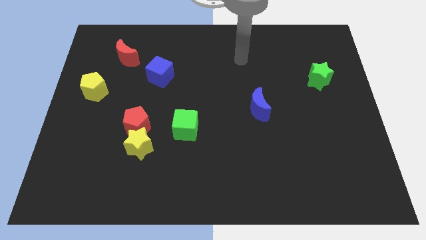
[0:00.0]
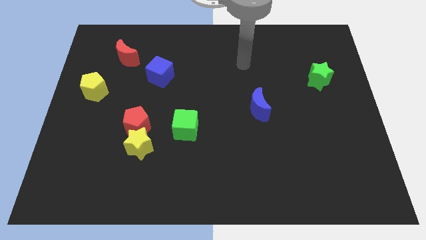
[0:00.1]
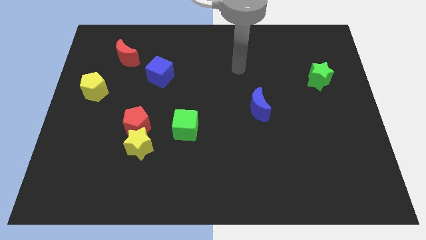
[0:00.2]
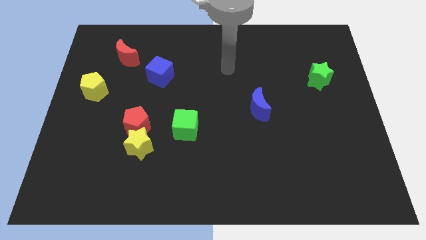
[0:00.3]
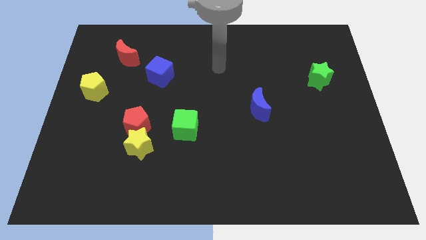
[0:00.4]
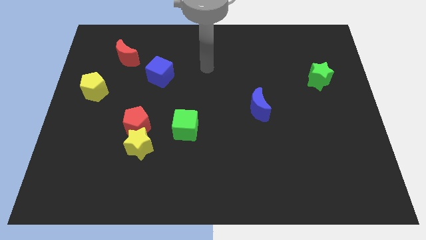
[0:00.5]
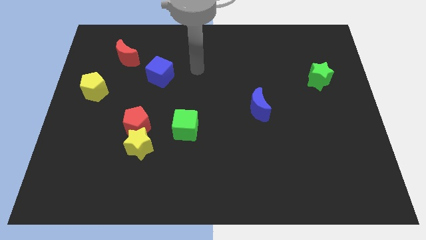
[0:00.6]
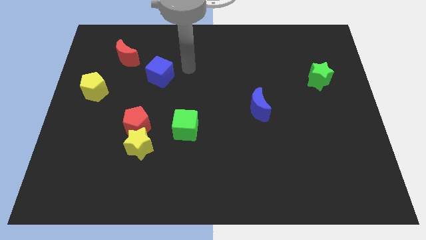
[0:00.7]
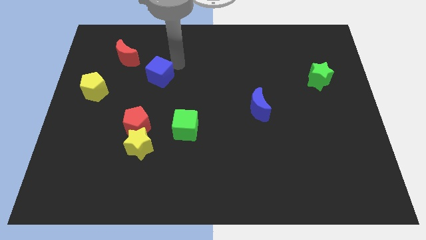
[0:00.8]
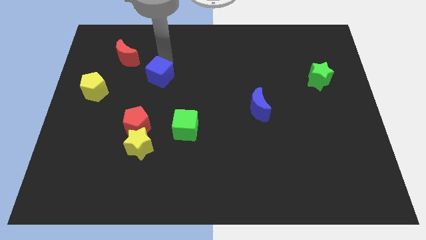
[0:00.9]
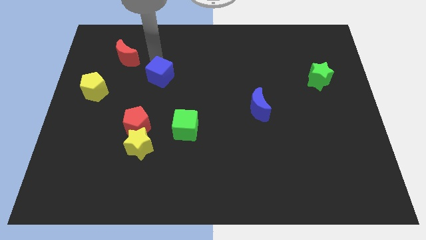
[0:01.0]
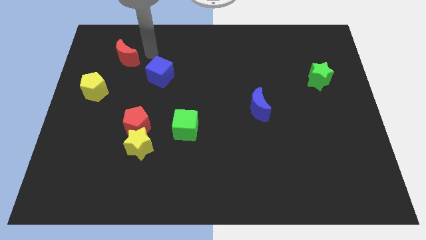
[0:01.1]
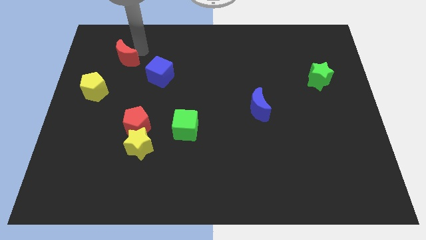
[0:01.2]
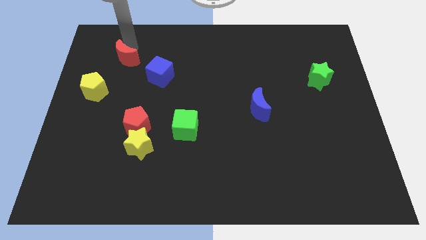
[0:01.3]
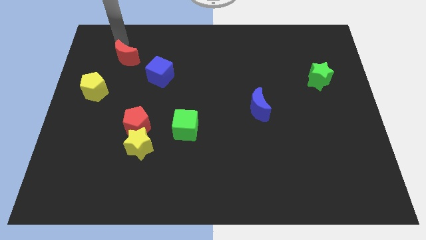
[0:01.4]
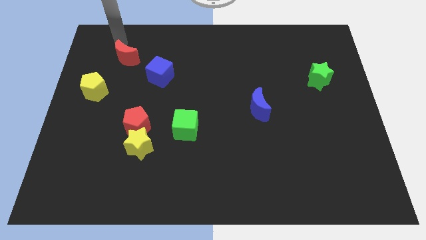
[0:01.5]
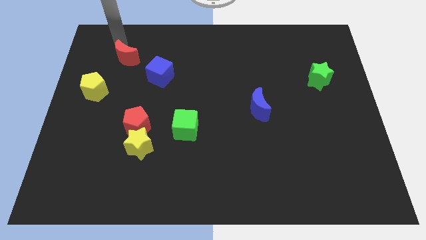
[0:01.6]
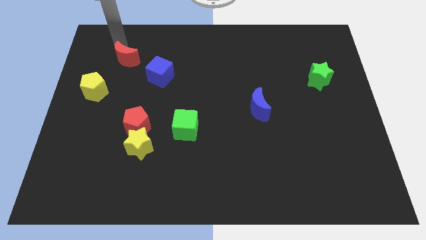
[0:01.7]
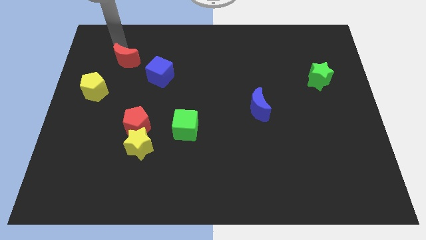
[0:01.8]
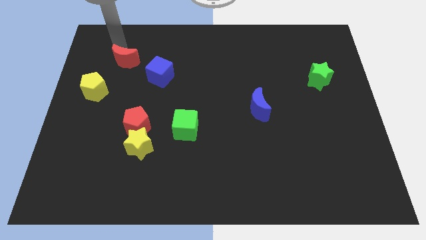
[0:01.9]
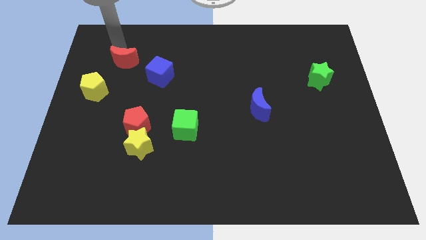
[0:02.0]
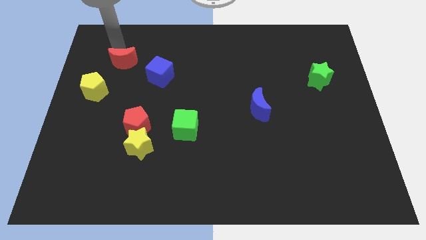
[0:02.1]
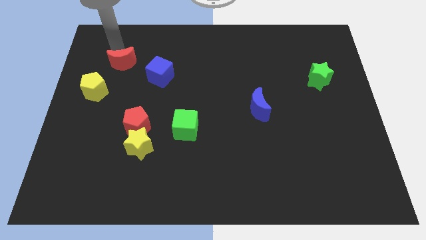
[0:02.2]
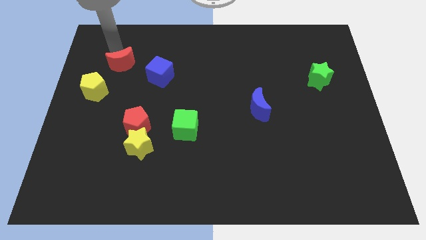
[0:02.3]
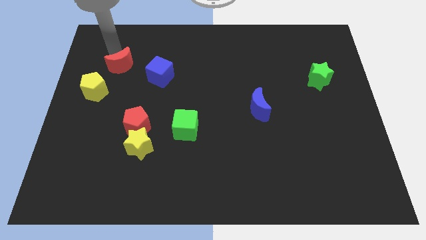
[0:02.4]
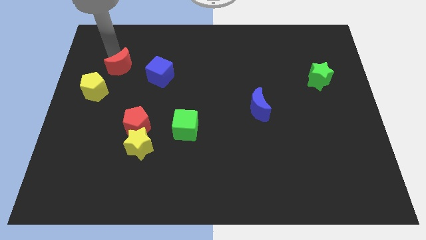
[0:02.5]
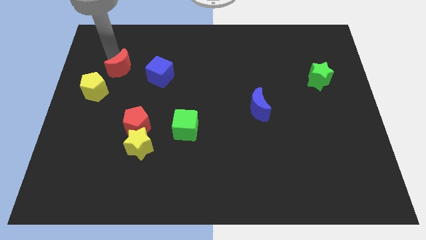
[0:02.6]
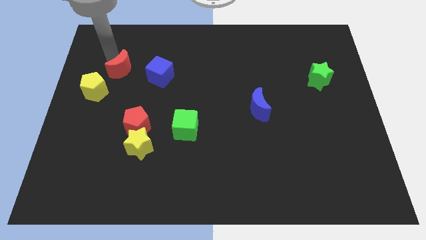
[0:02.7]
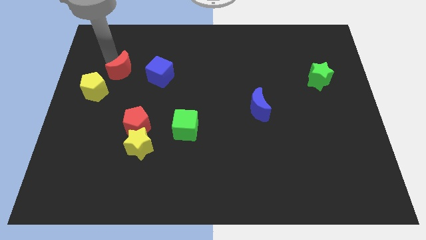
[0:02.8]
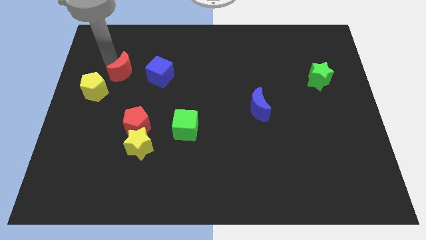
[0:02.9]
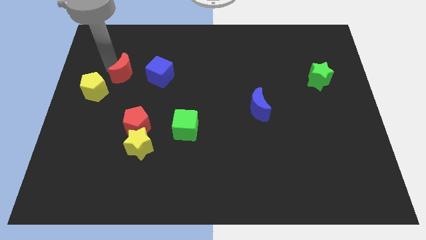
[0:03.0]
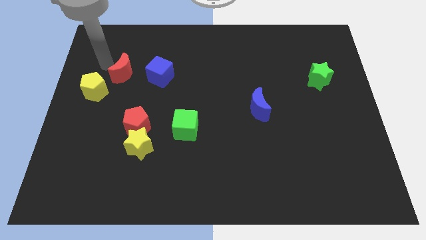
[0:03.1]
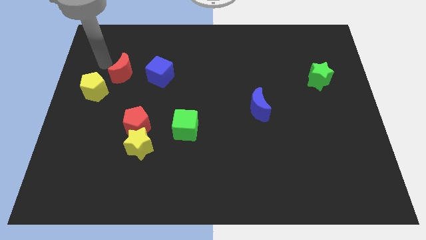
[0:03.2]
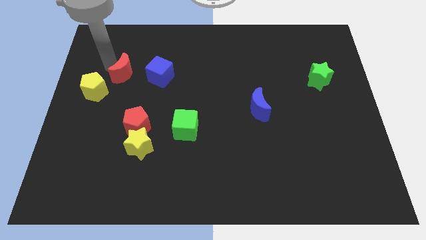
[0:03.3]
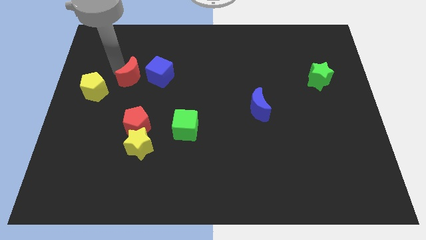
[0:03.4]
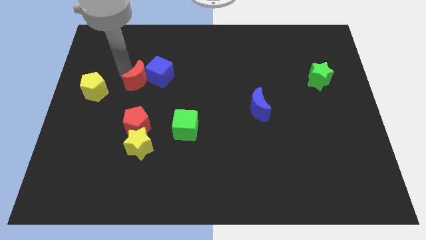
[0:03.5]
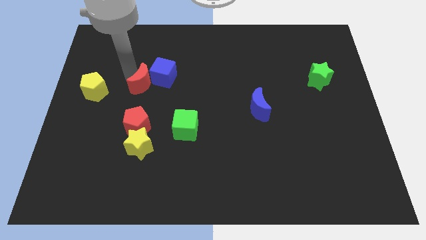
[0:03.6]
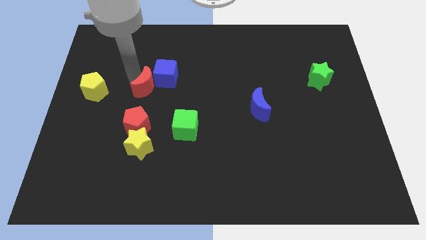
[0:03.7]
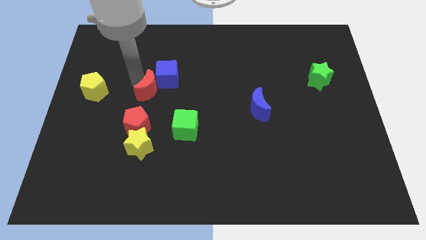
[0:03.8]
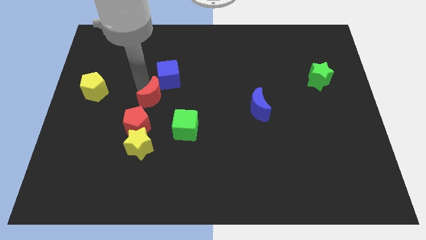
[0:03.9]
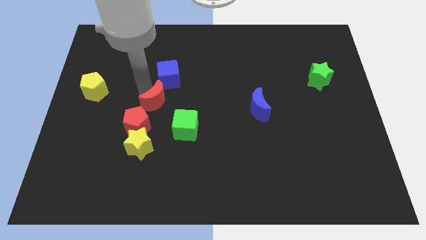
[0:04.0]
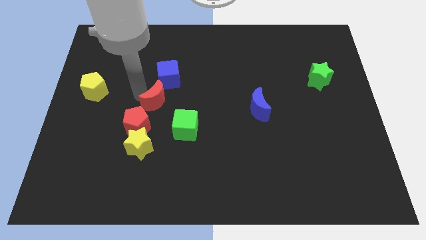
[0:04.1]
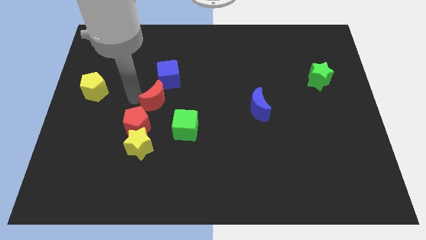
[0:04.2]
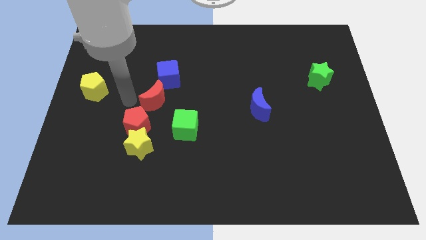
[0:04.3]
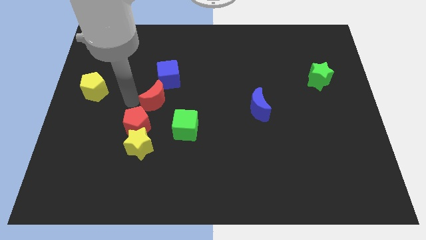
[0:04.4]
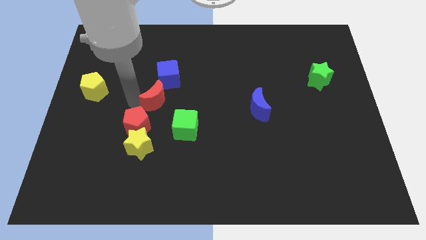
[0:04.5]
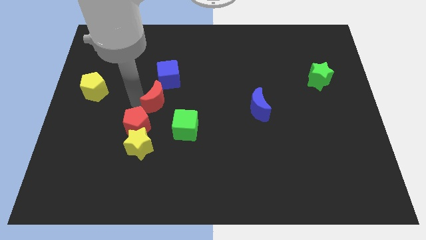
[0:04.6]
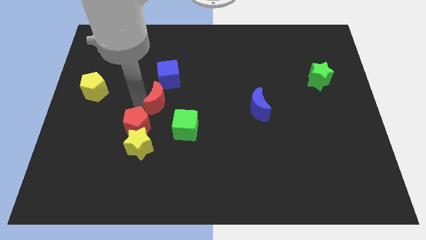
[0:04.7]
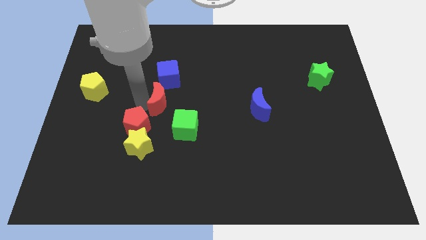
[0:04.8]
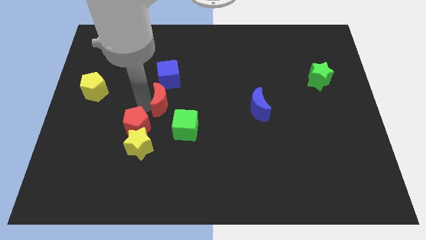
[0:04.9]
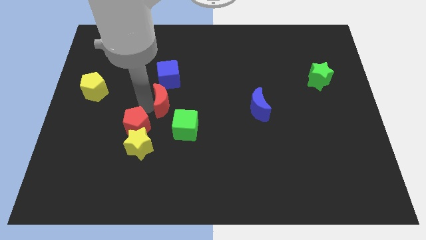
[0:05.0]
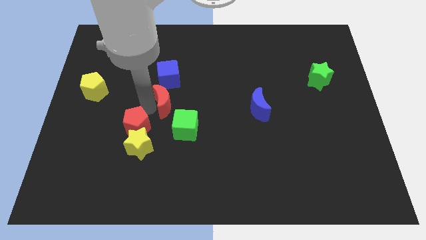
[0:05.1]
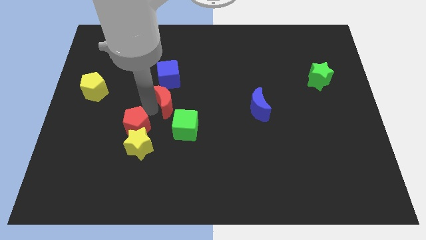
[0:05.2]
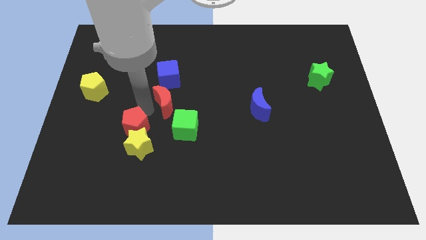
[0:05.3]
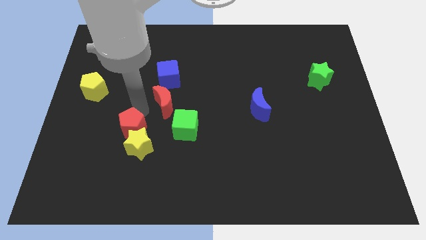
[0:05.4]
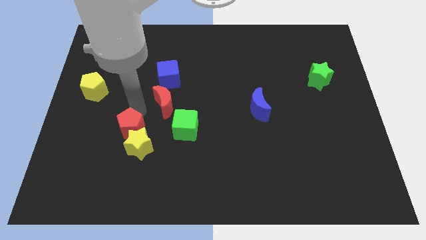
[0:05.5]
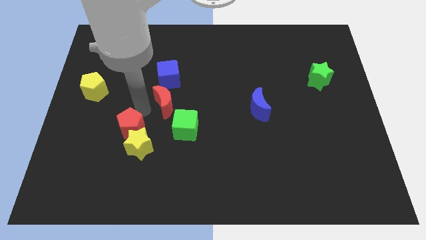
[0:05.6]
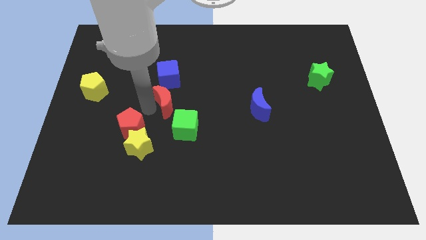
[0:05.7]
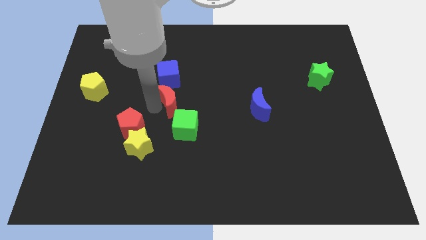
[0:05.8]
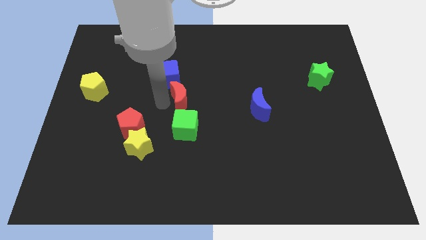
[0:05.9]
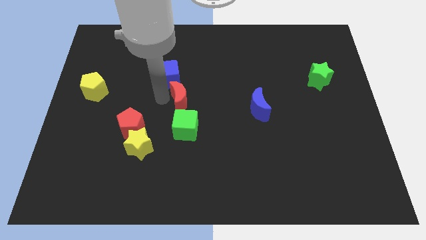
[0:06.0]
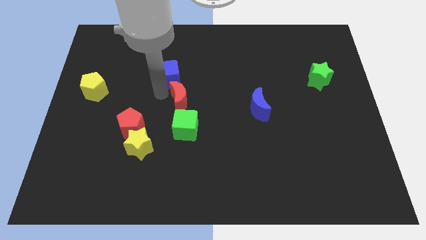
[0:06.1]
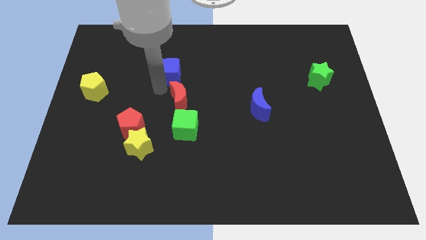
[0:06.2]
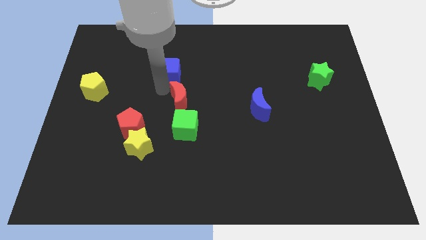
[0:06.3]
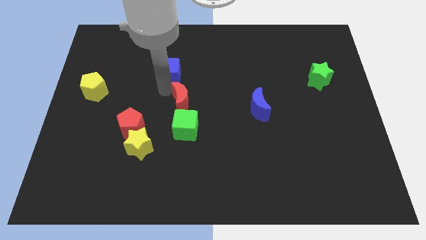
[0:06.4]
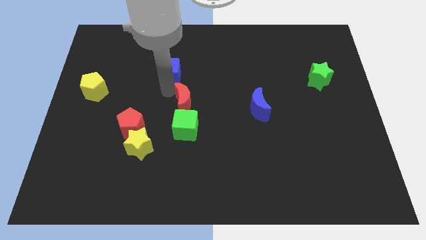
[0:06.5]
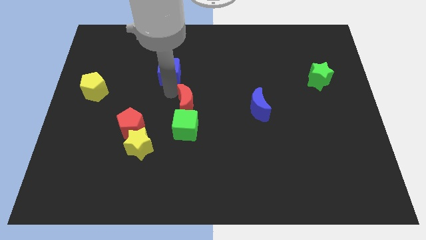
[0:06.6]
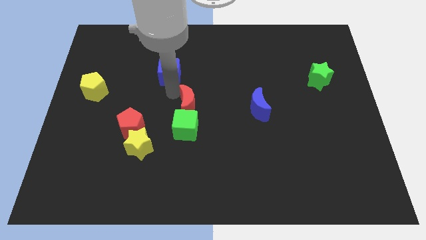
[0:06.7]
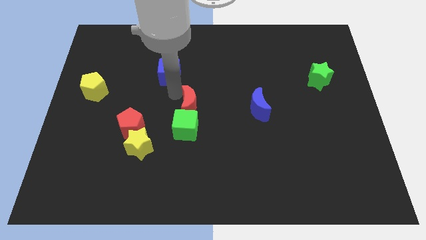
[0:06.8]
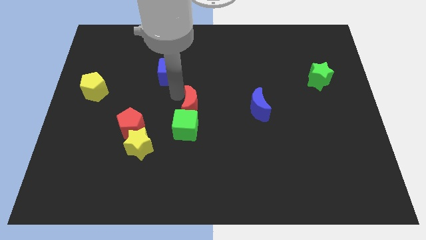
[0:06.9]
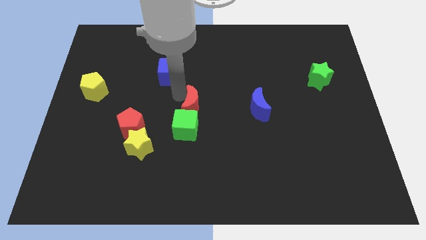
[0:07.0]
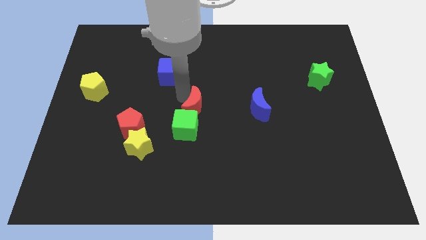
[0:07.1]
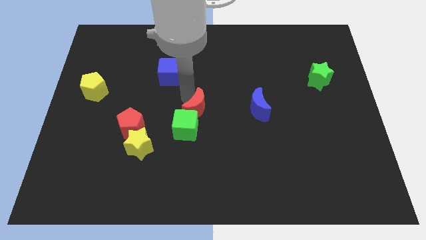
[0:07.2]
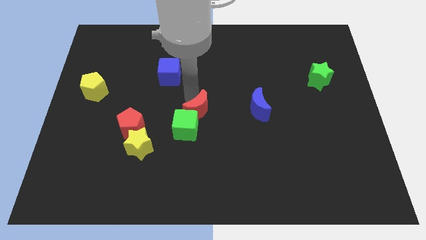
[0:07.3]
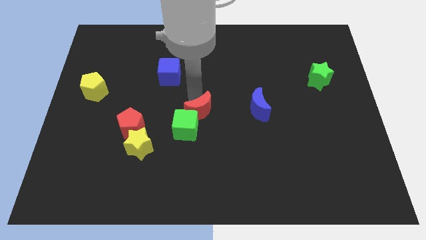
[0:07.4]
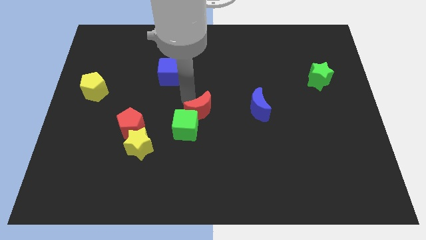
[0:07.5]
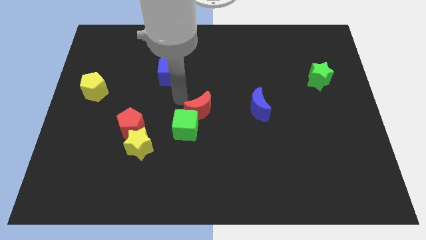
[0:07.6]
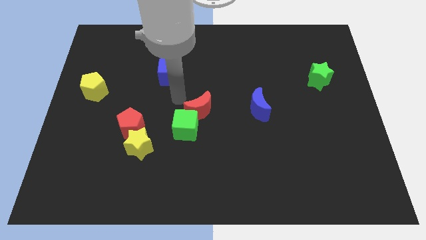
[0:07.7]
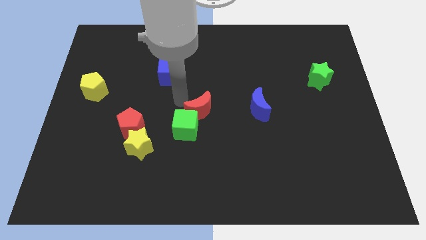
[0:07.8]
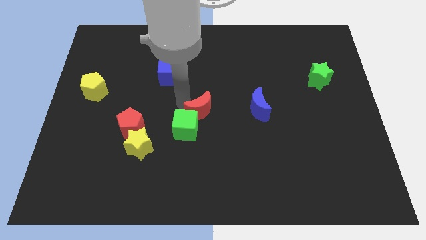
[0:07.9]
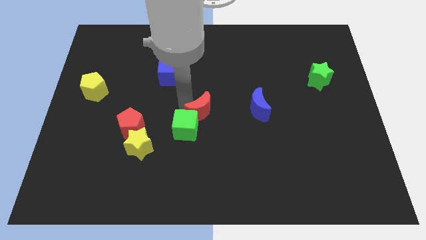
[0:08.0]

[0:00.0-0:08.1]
put the red moon right of the green cube
